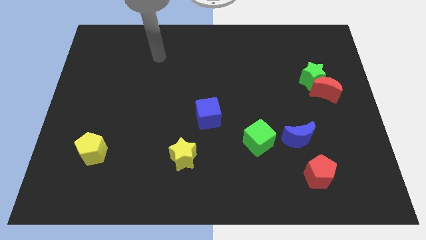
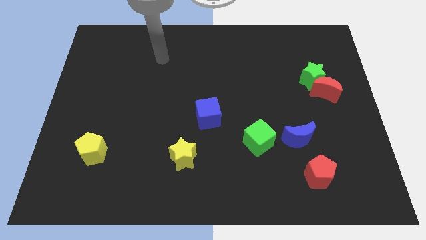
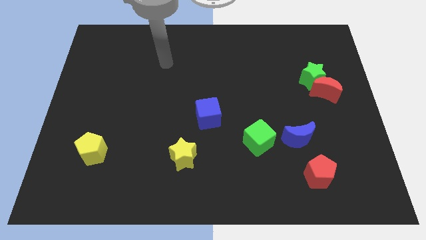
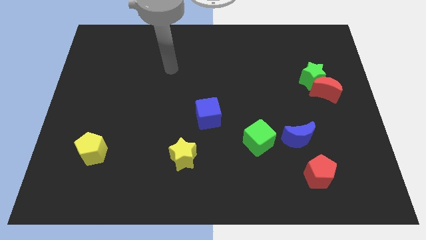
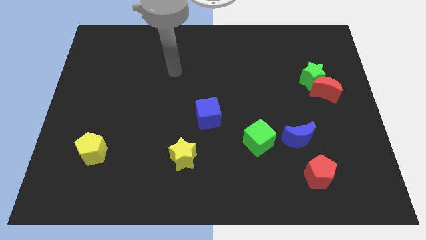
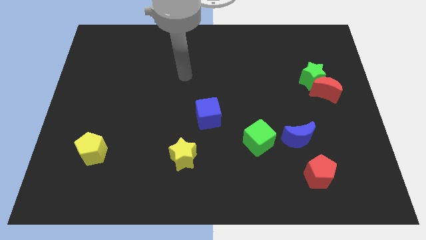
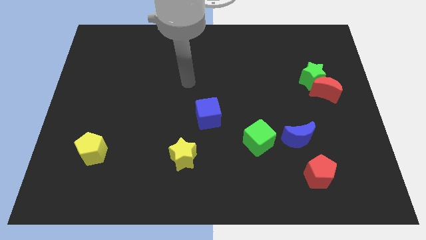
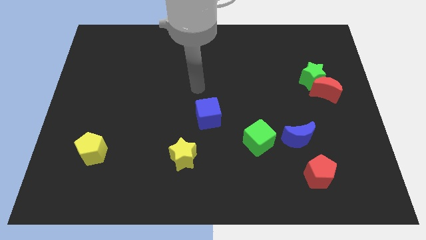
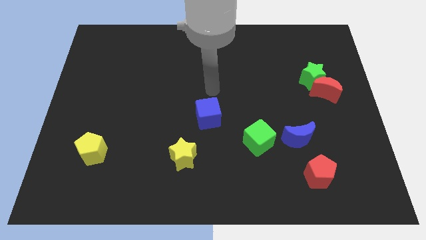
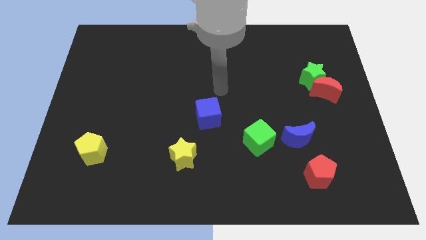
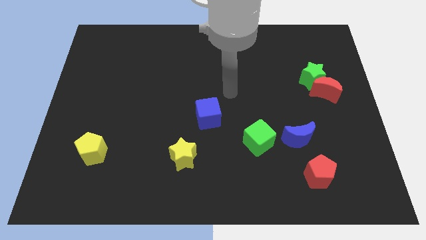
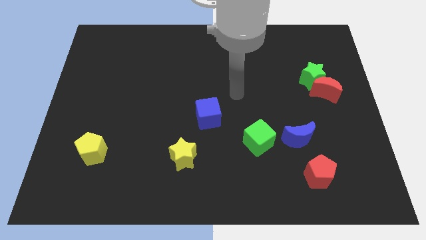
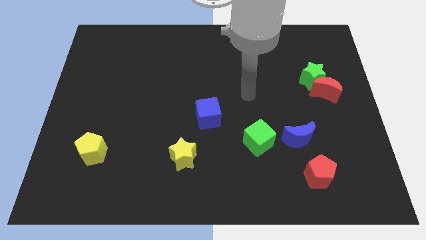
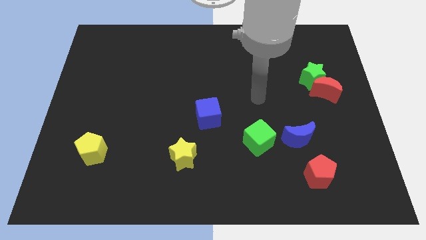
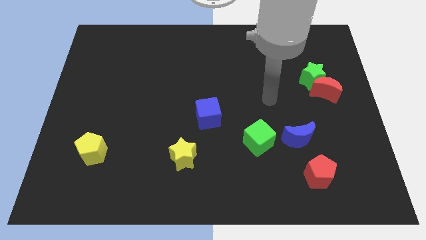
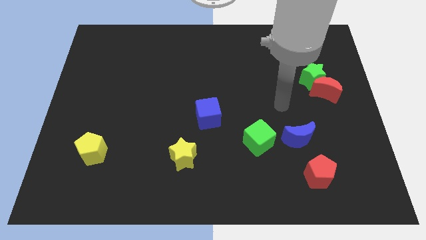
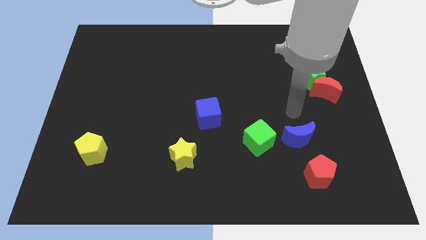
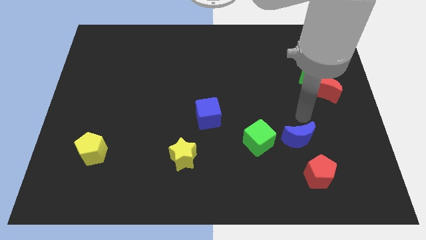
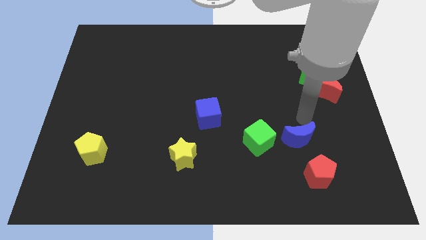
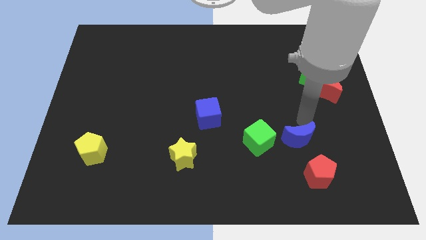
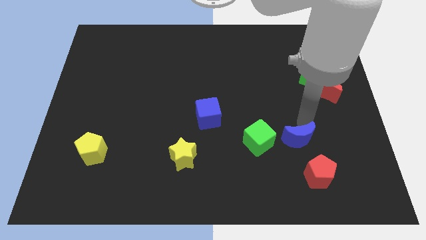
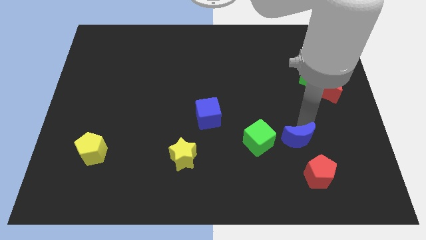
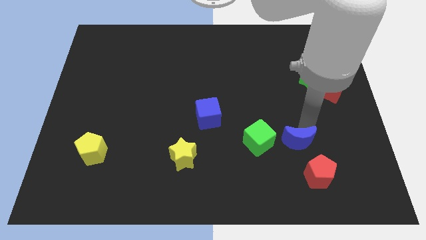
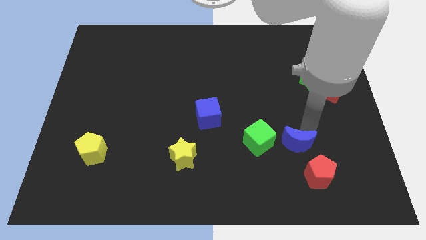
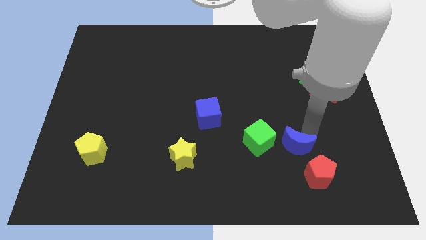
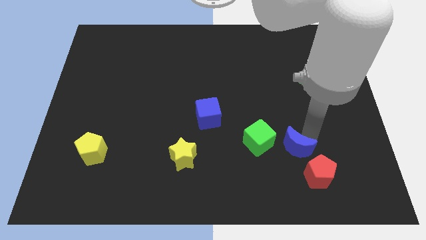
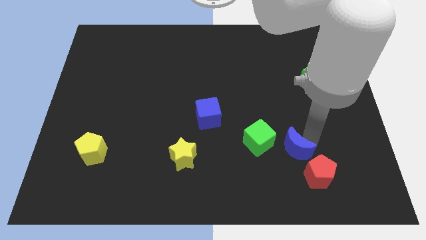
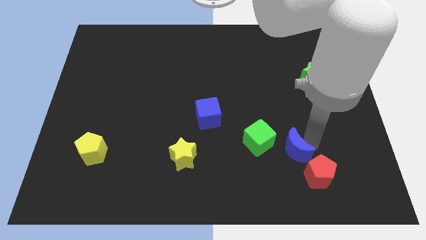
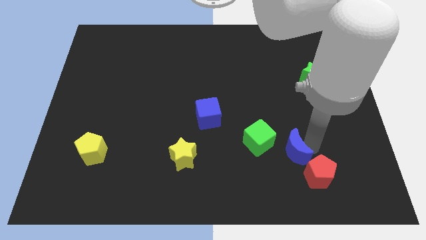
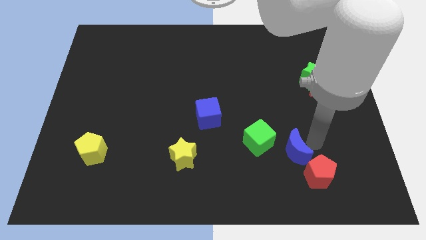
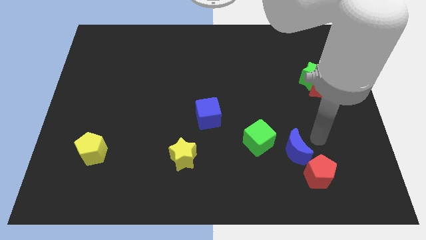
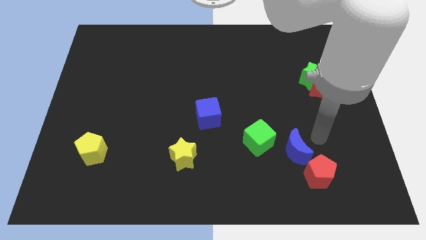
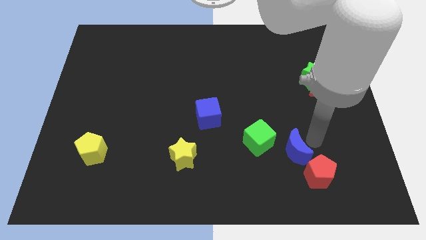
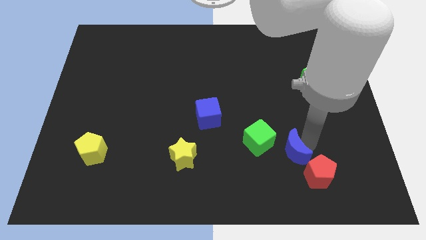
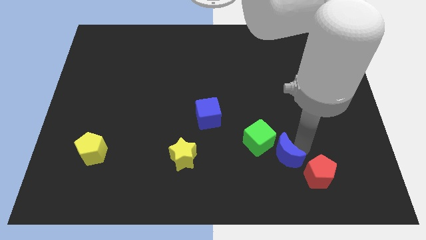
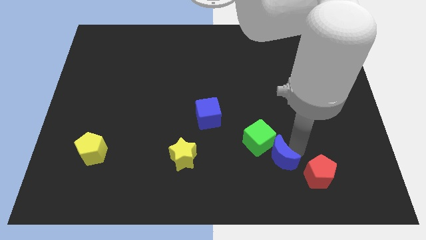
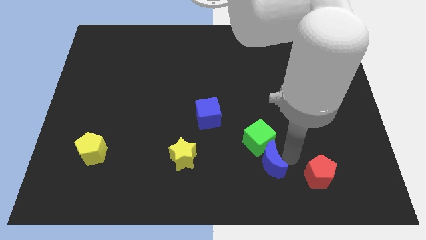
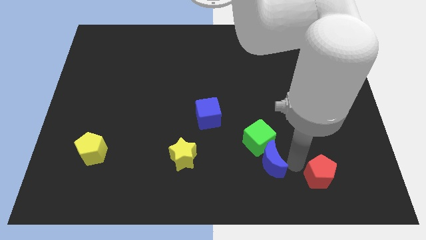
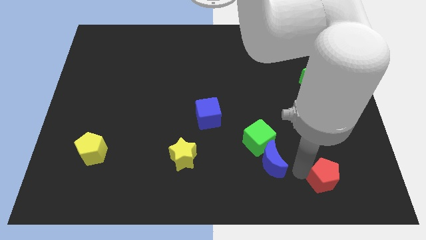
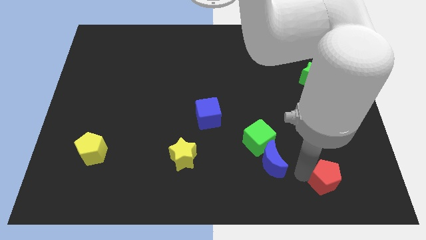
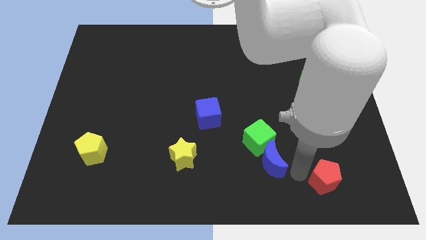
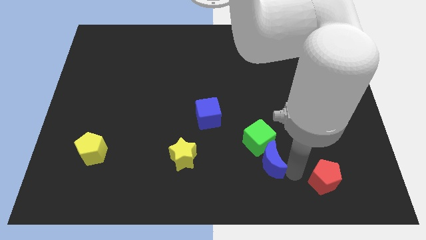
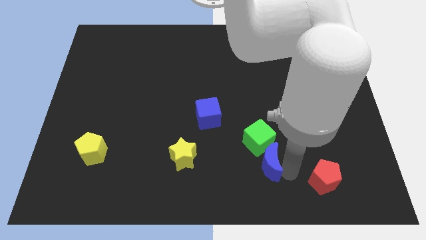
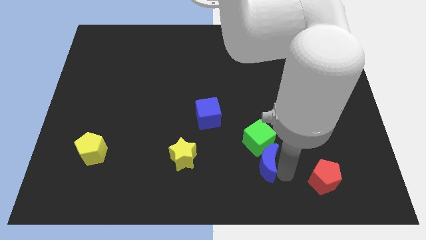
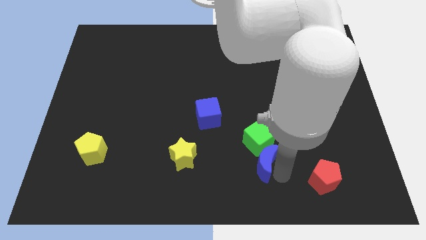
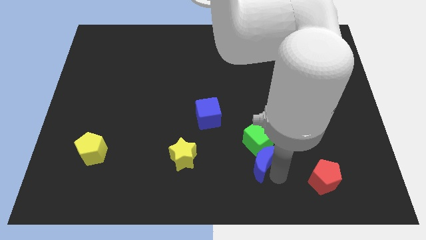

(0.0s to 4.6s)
move the blue moon a bit left

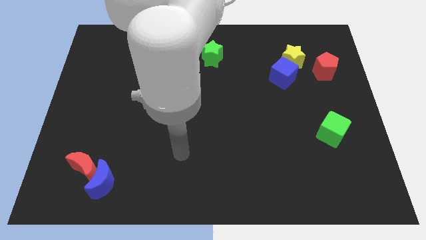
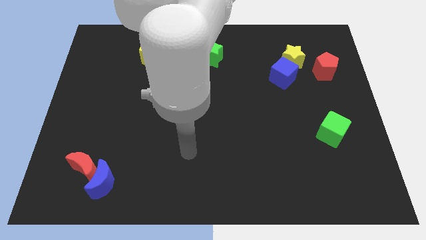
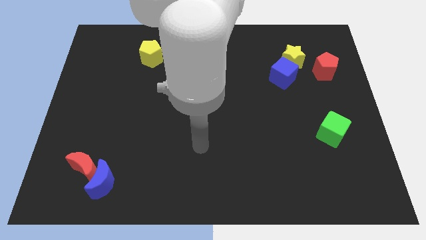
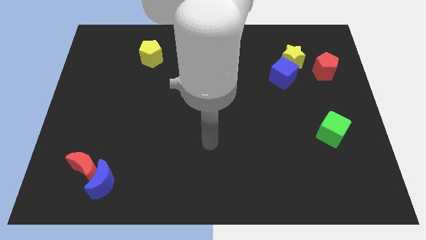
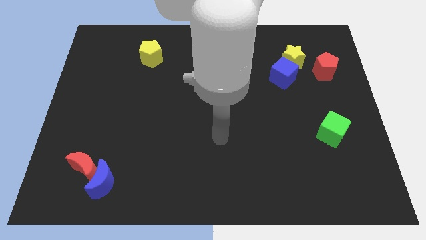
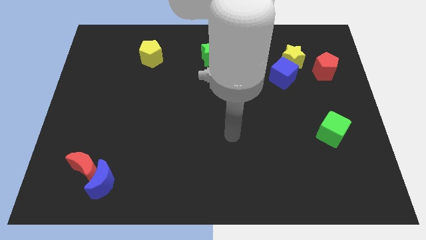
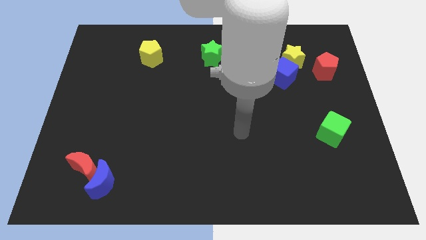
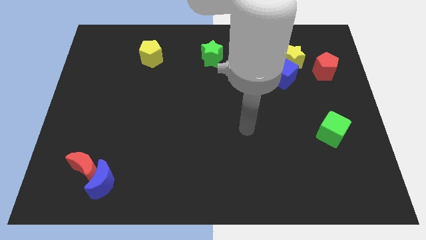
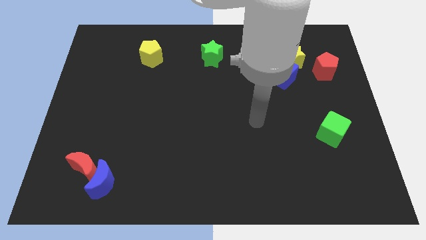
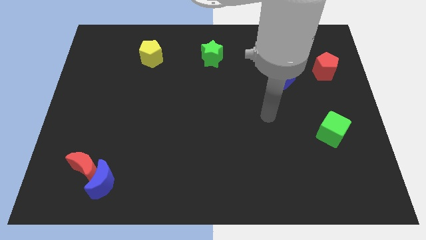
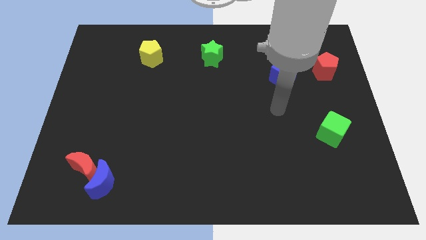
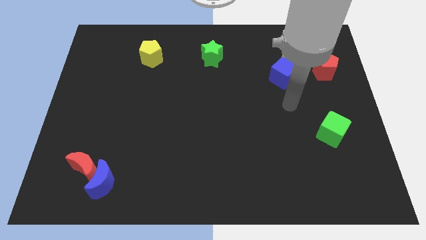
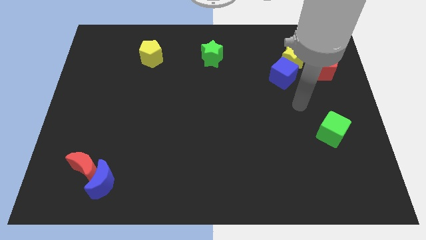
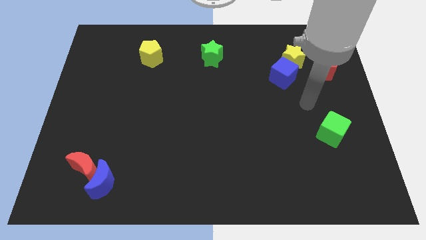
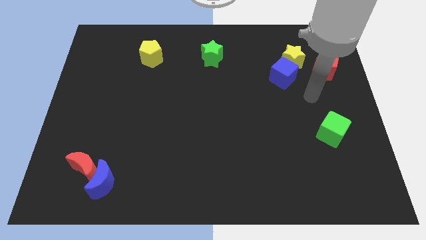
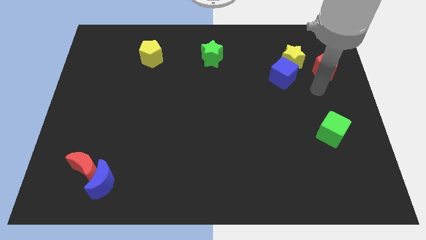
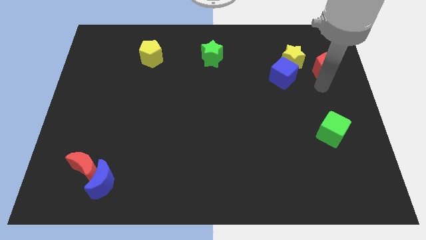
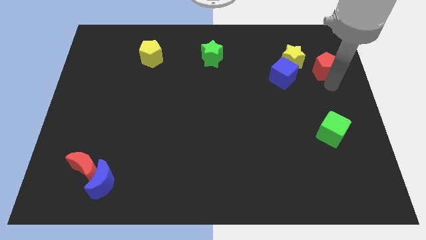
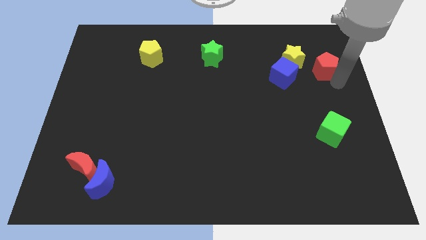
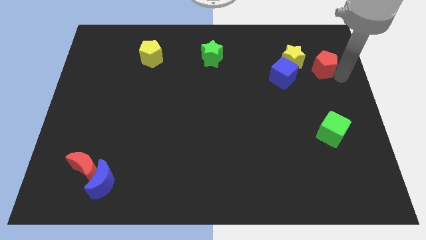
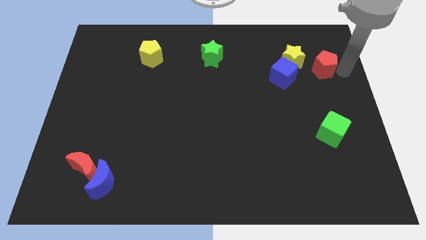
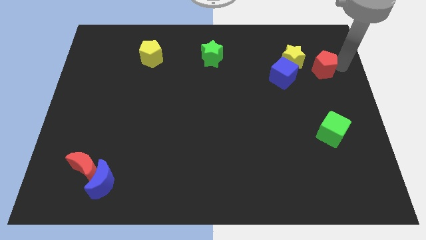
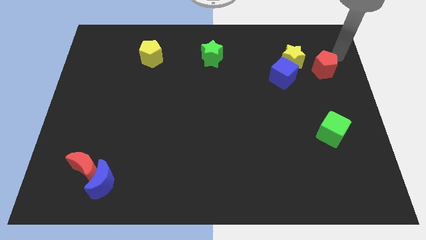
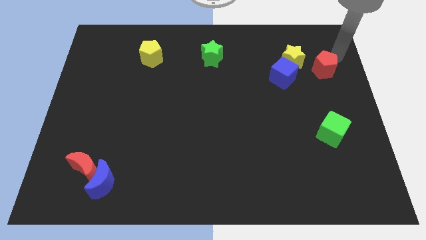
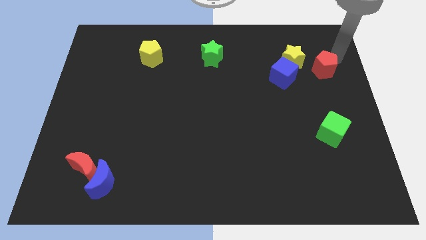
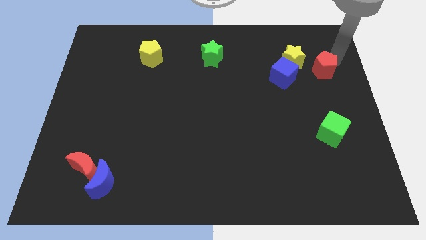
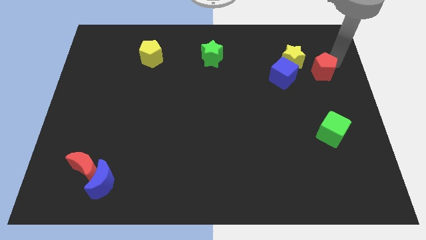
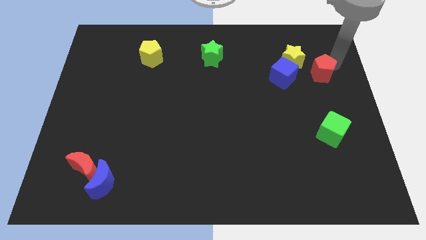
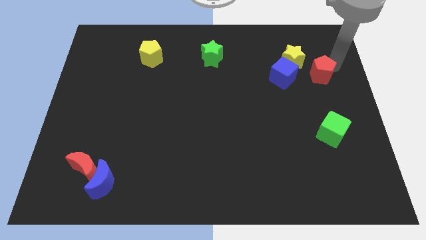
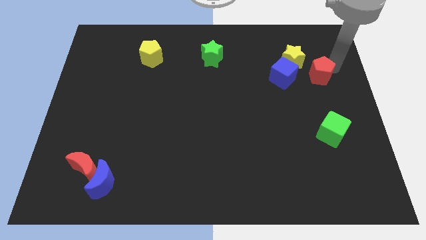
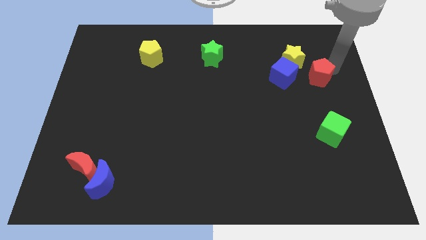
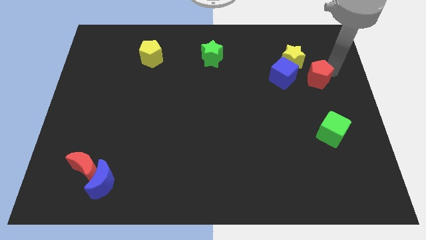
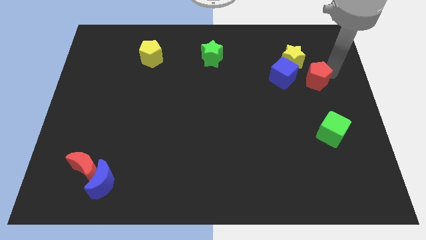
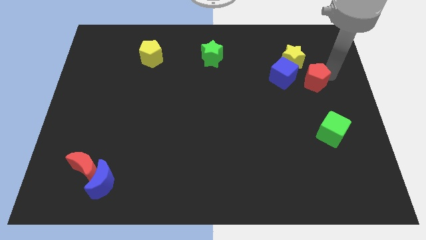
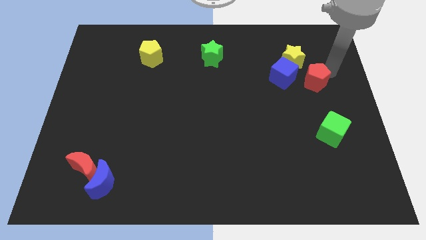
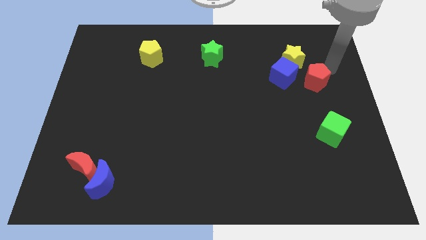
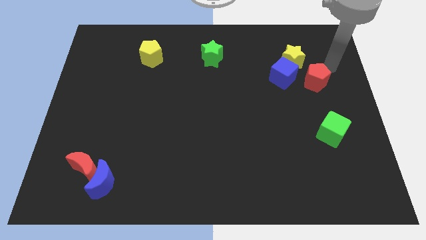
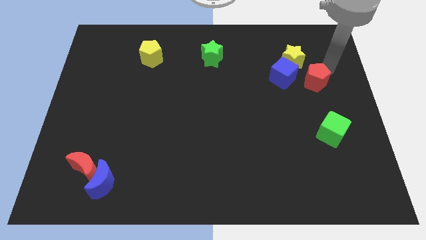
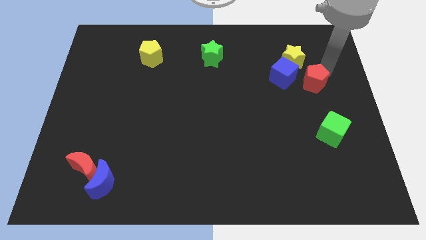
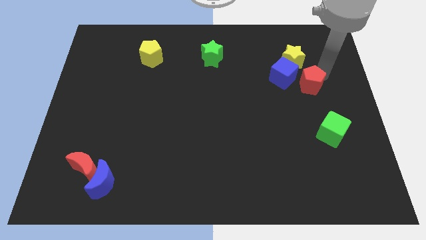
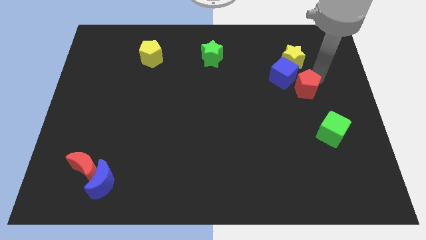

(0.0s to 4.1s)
move the red pentagon down and then to the left a little bit
